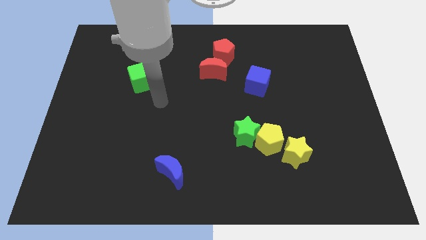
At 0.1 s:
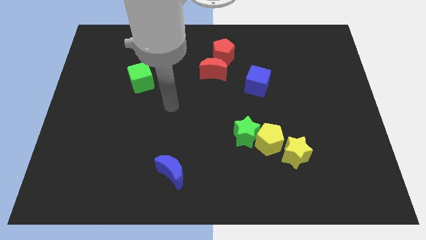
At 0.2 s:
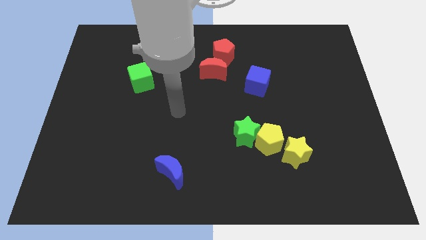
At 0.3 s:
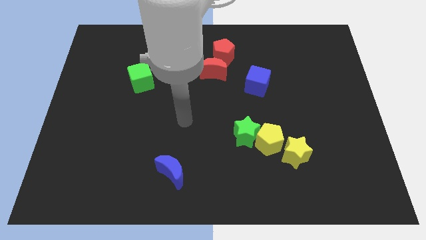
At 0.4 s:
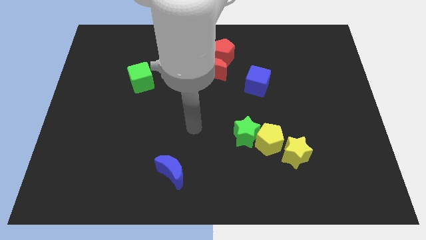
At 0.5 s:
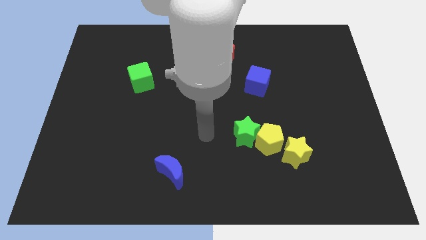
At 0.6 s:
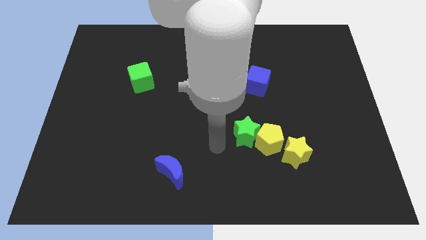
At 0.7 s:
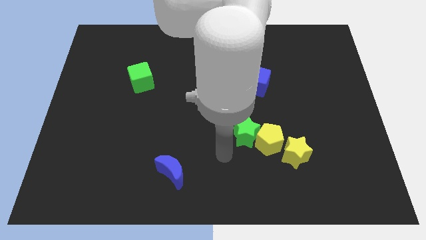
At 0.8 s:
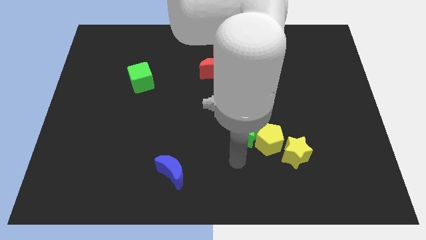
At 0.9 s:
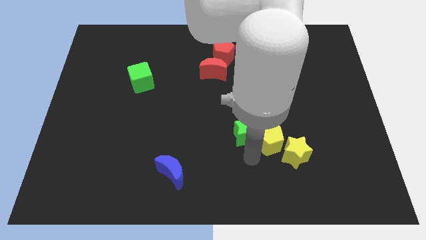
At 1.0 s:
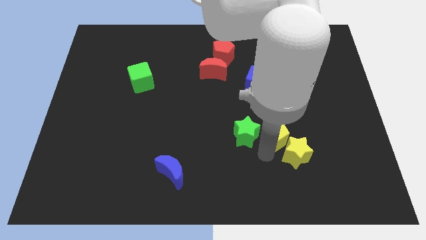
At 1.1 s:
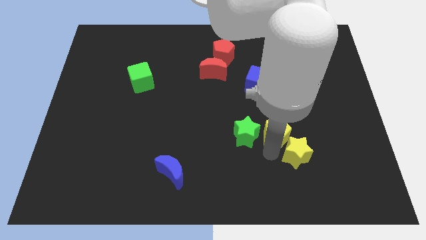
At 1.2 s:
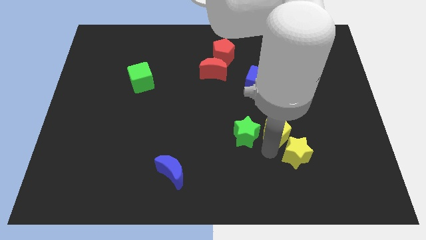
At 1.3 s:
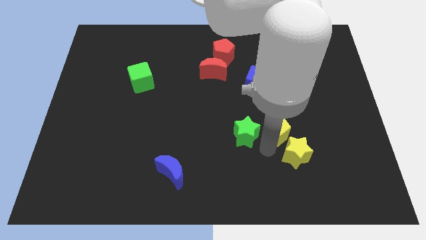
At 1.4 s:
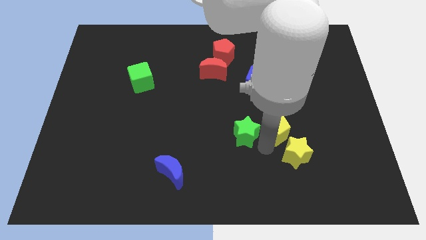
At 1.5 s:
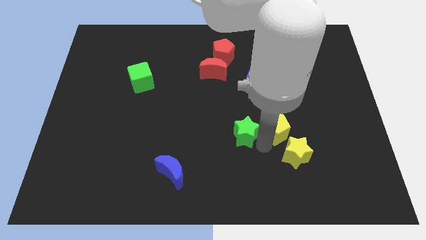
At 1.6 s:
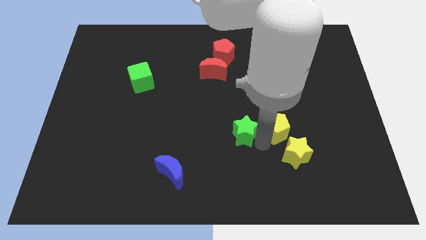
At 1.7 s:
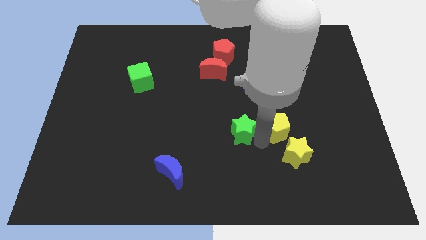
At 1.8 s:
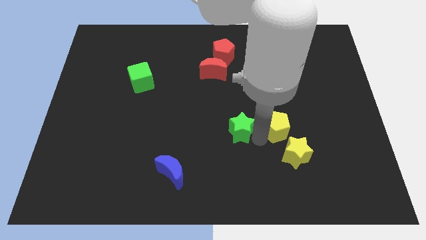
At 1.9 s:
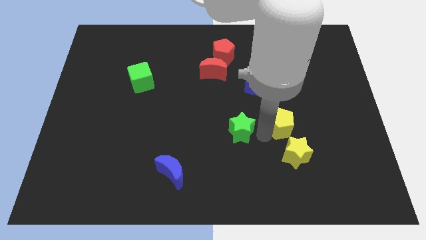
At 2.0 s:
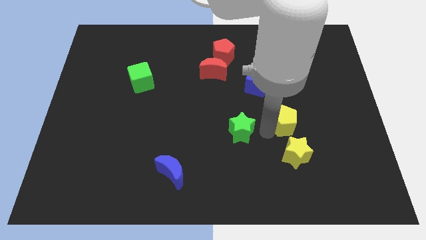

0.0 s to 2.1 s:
separate the green star from the yellow pentagon

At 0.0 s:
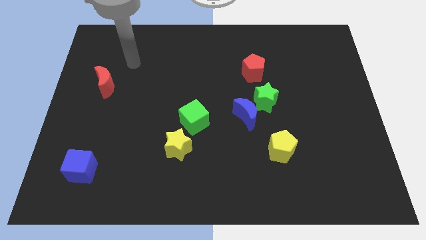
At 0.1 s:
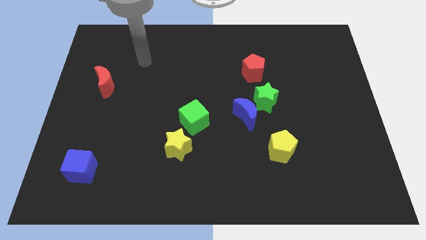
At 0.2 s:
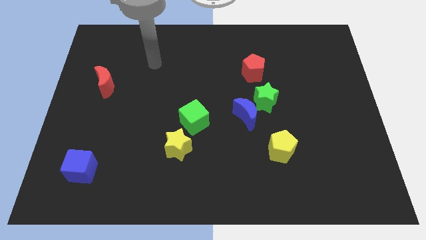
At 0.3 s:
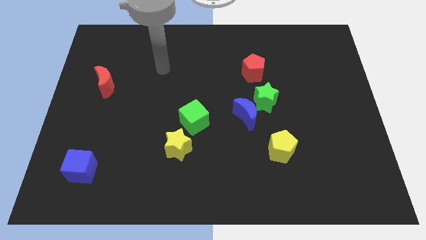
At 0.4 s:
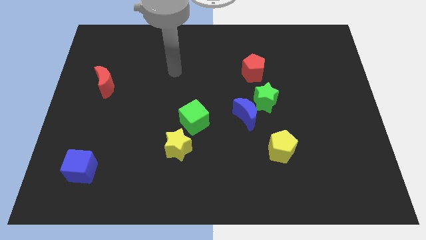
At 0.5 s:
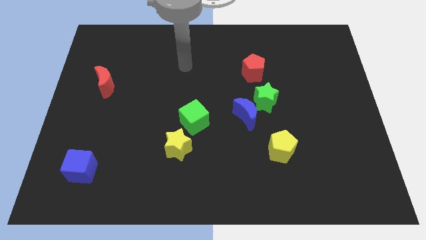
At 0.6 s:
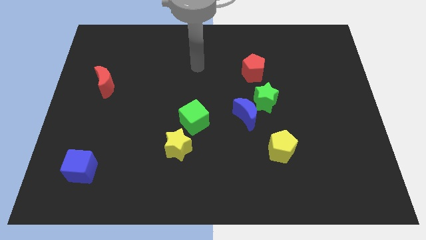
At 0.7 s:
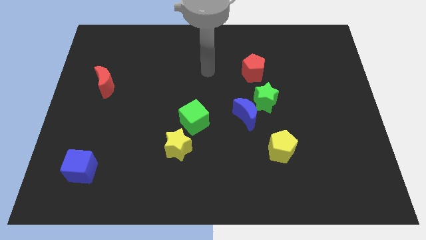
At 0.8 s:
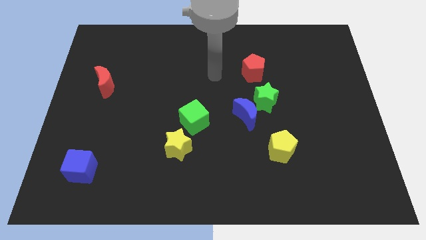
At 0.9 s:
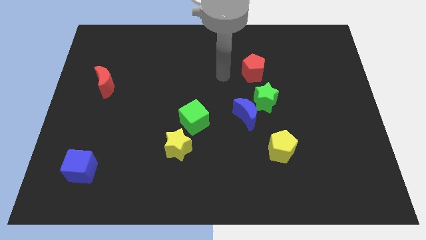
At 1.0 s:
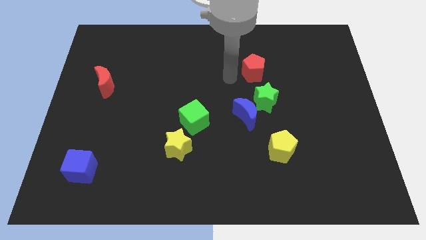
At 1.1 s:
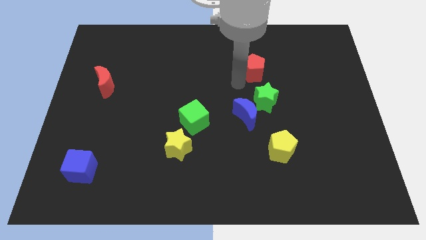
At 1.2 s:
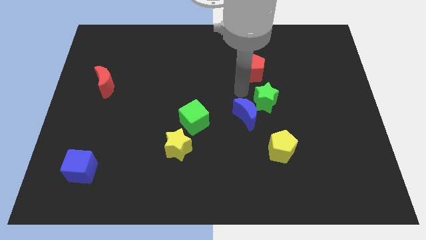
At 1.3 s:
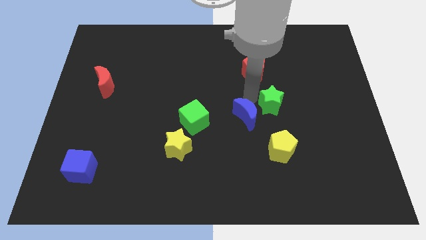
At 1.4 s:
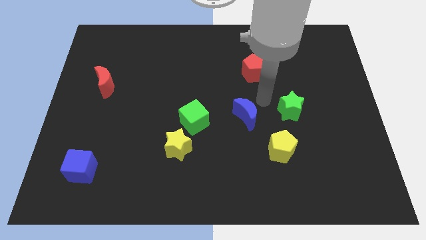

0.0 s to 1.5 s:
separate the blue moon from the green star

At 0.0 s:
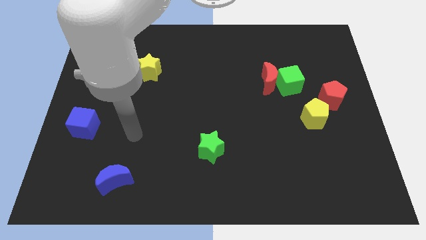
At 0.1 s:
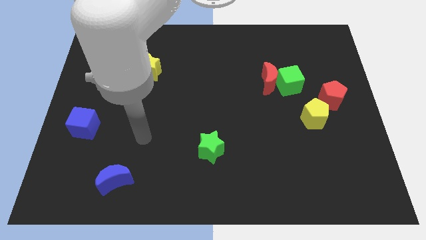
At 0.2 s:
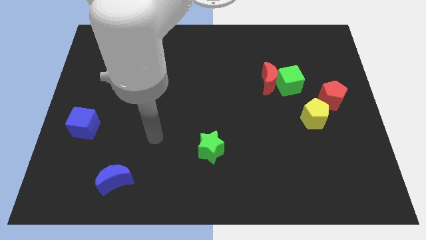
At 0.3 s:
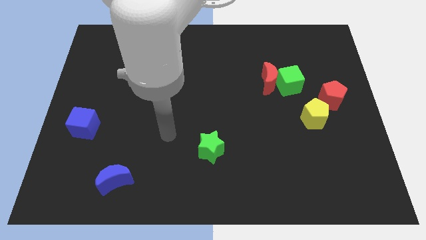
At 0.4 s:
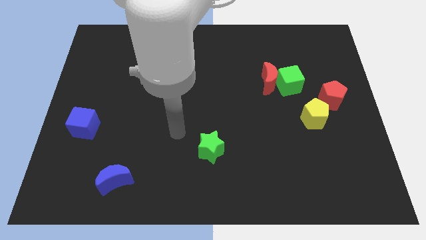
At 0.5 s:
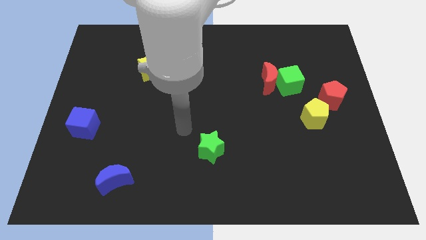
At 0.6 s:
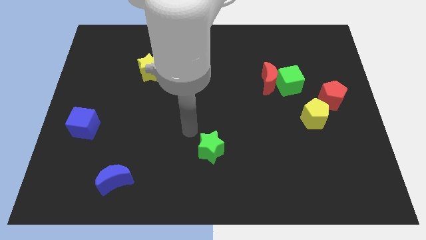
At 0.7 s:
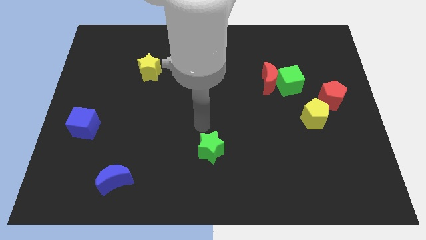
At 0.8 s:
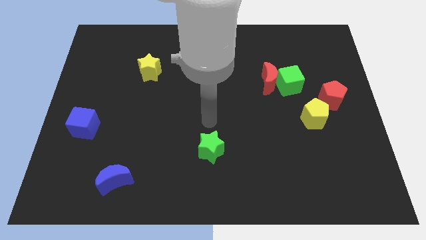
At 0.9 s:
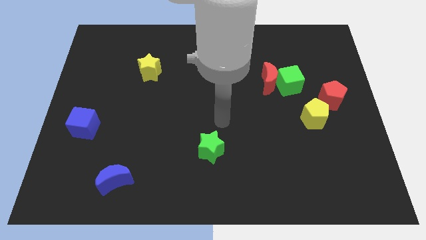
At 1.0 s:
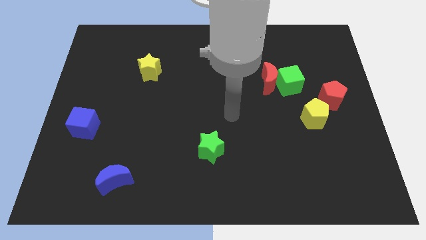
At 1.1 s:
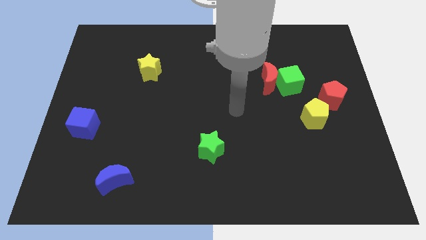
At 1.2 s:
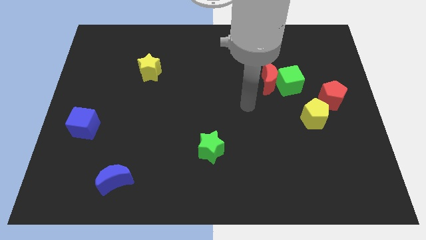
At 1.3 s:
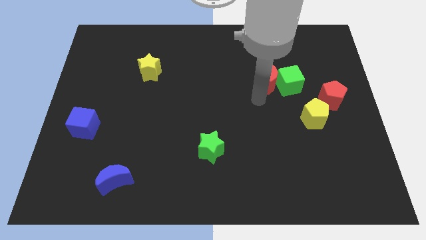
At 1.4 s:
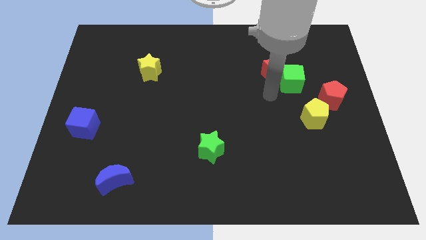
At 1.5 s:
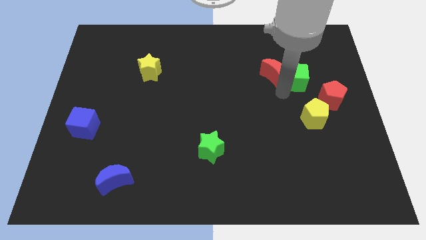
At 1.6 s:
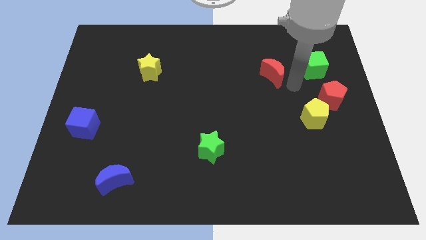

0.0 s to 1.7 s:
move the red moon away from the green cube

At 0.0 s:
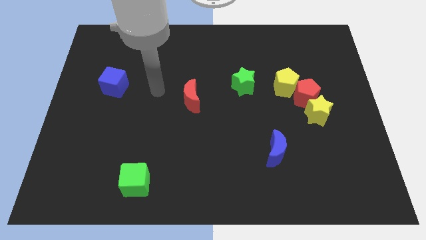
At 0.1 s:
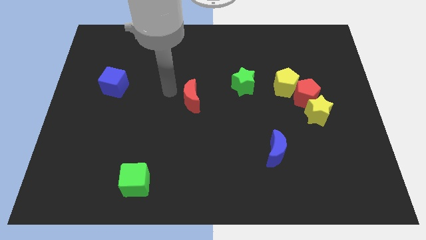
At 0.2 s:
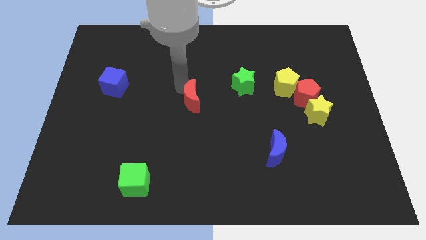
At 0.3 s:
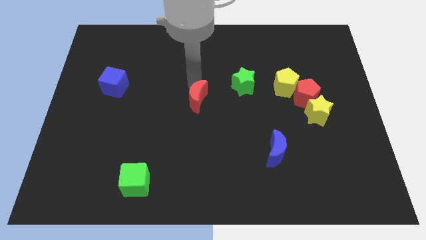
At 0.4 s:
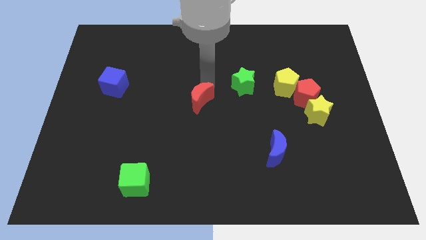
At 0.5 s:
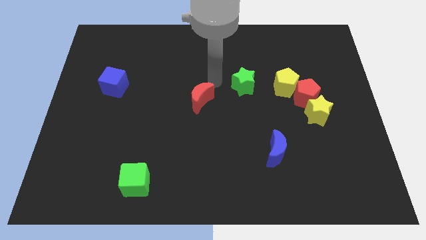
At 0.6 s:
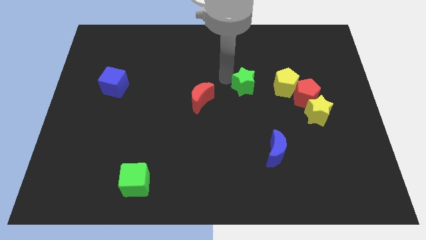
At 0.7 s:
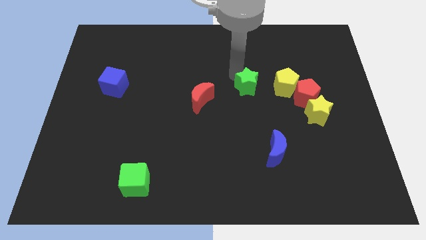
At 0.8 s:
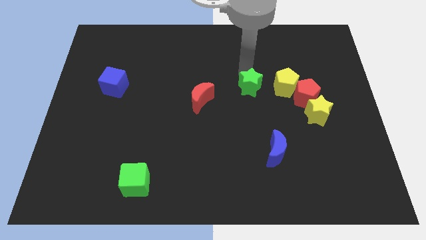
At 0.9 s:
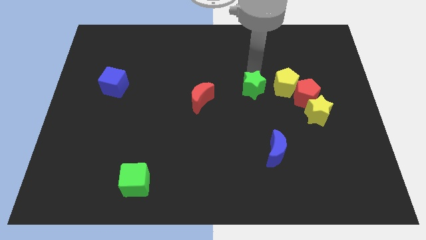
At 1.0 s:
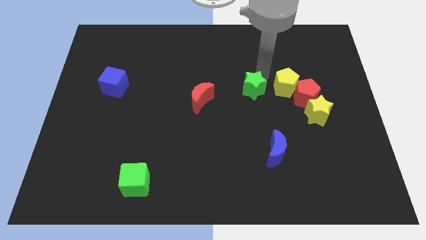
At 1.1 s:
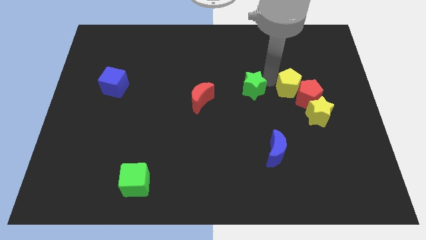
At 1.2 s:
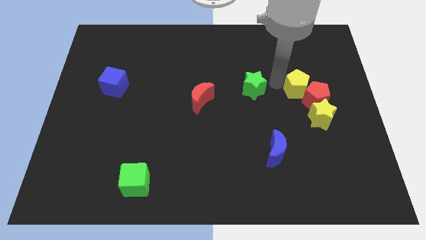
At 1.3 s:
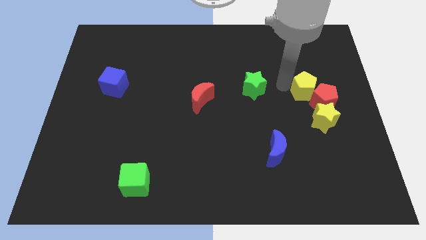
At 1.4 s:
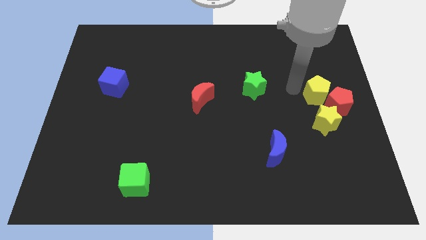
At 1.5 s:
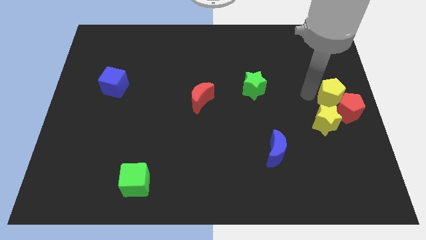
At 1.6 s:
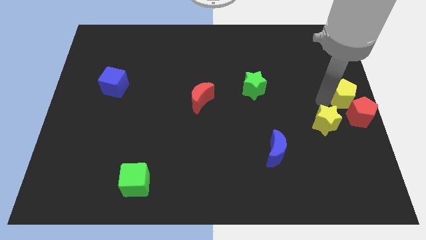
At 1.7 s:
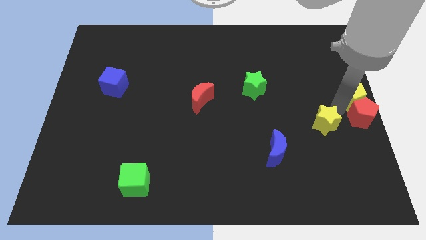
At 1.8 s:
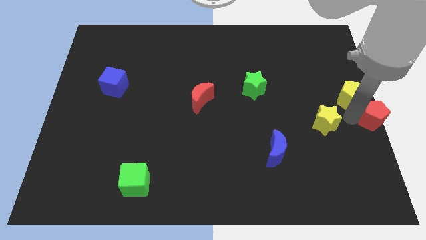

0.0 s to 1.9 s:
move the yellow star away from the red pentagon

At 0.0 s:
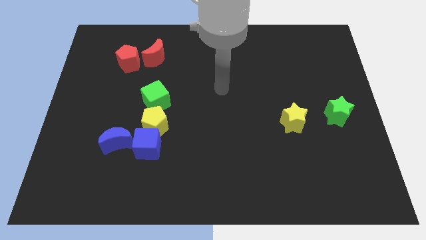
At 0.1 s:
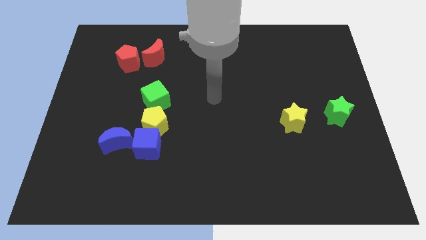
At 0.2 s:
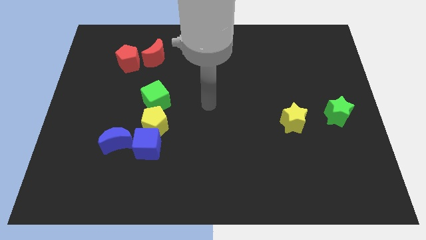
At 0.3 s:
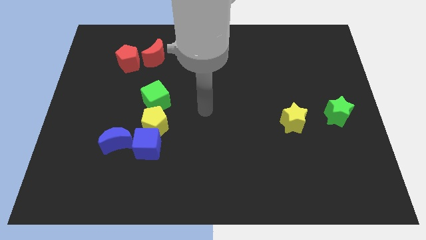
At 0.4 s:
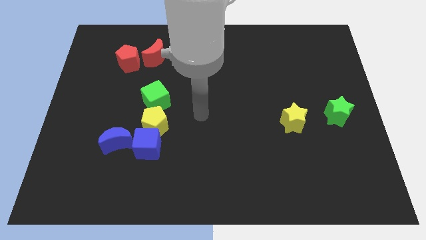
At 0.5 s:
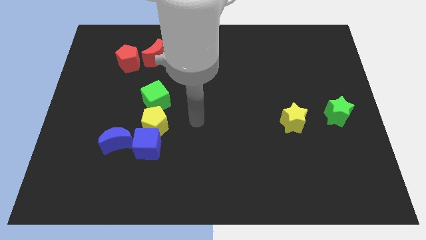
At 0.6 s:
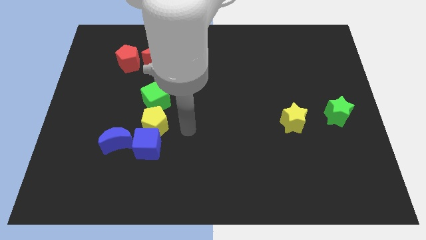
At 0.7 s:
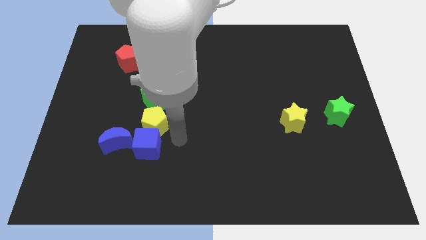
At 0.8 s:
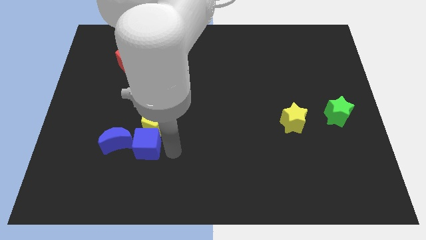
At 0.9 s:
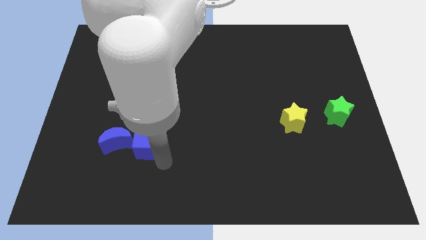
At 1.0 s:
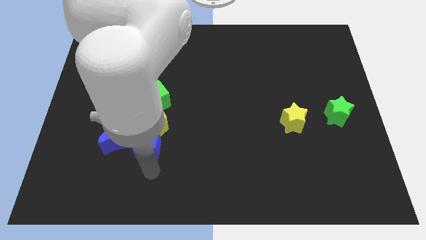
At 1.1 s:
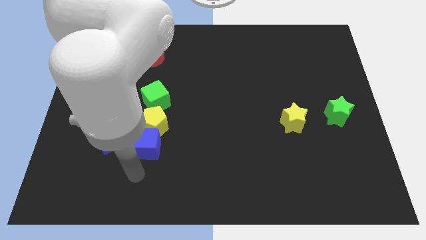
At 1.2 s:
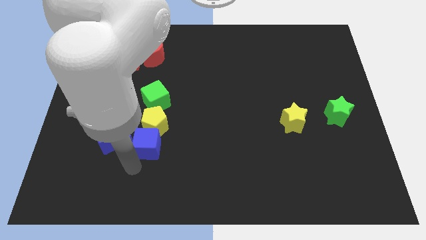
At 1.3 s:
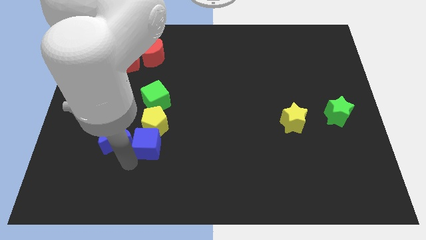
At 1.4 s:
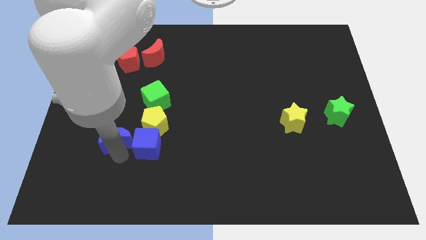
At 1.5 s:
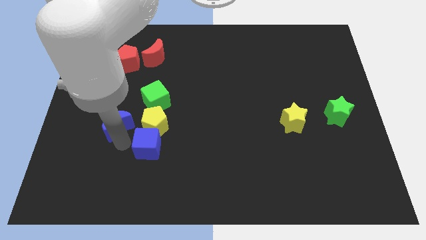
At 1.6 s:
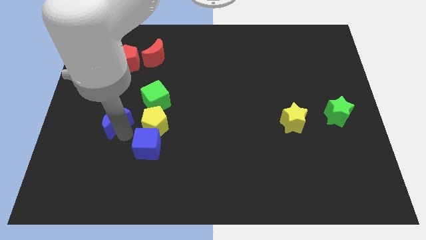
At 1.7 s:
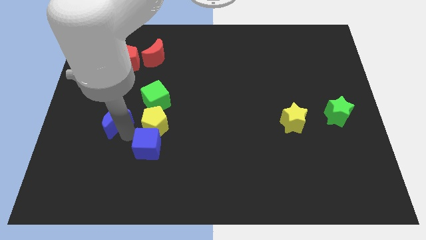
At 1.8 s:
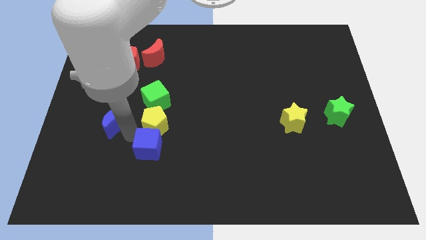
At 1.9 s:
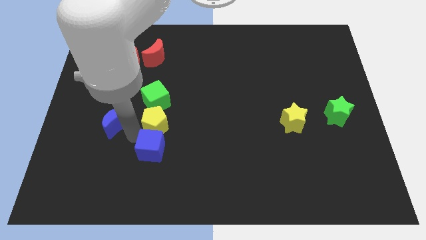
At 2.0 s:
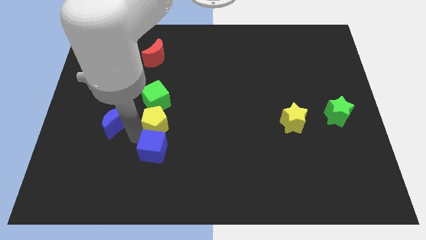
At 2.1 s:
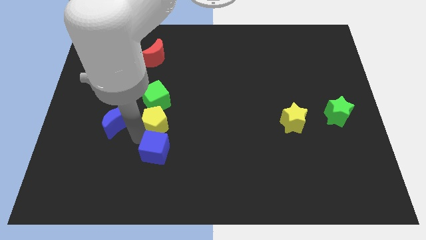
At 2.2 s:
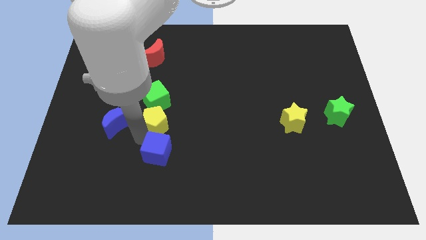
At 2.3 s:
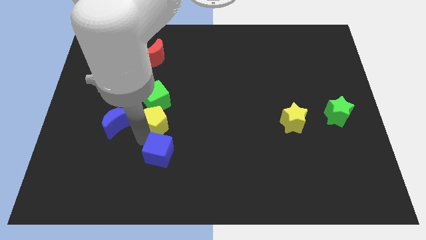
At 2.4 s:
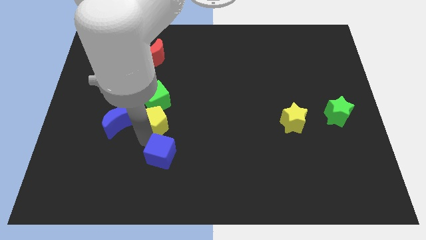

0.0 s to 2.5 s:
pull the blue cube apart from the yellow pentagon and blue moon
